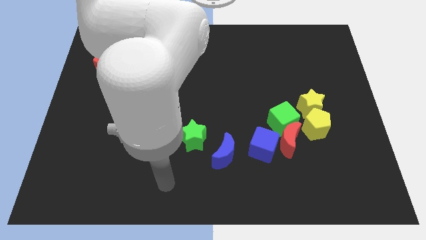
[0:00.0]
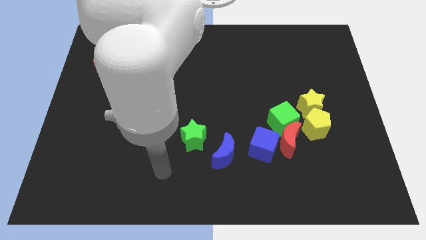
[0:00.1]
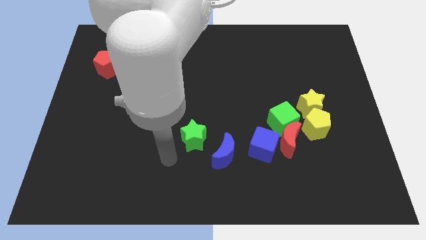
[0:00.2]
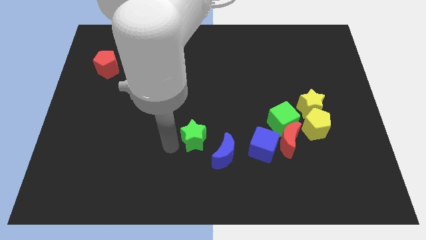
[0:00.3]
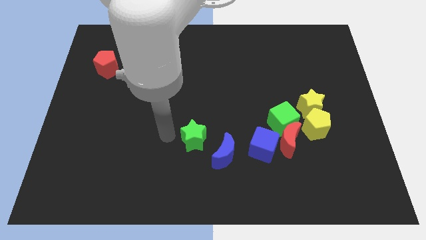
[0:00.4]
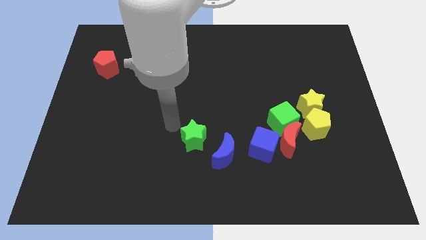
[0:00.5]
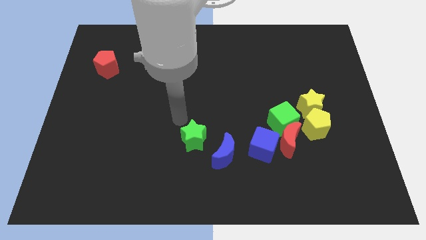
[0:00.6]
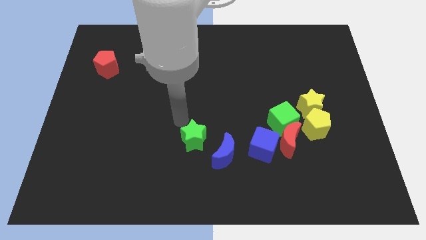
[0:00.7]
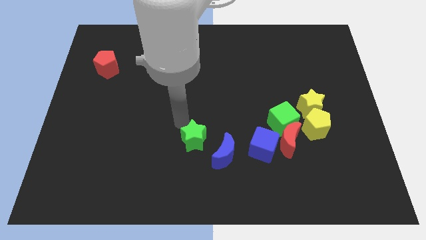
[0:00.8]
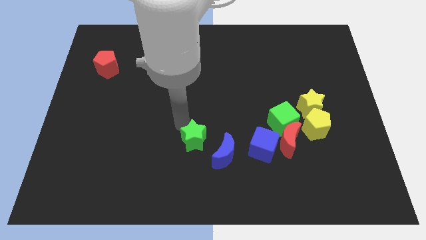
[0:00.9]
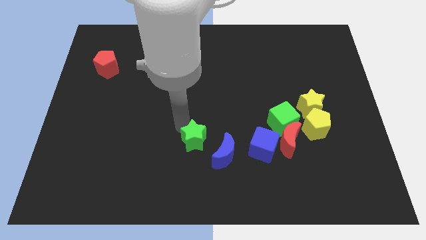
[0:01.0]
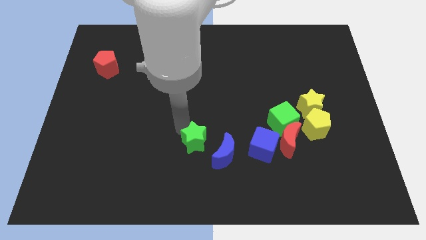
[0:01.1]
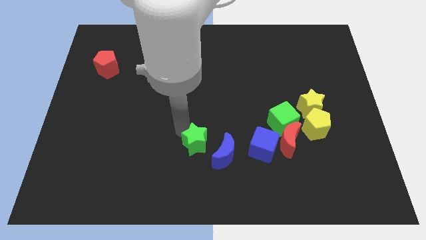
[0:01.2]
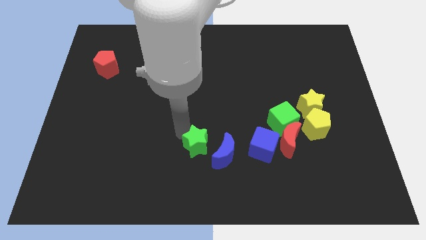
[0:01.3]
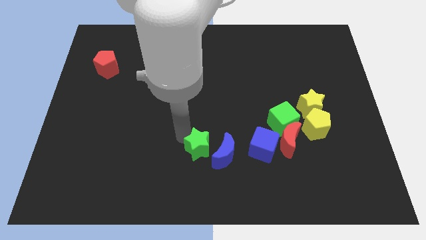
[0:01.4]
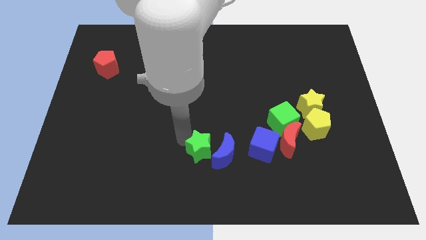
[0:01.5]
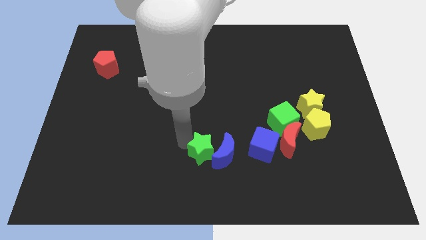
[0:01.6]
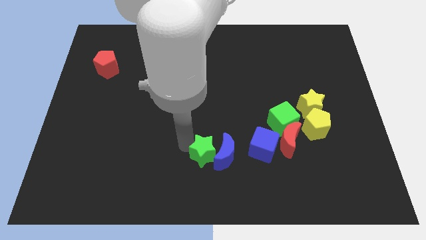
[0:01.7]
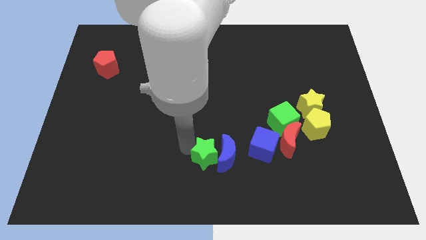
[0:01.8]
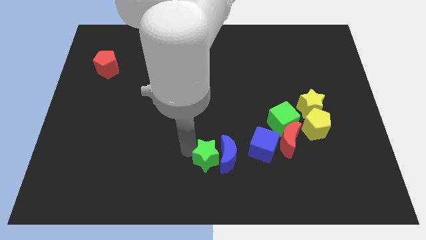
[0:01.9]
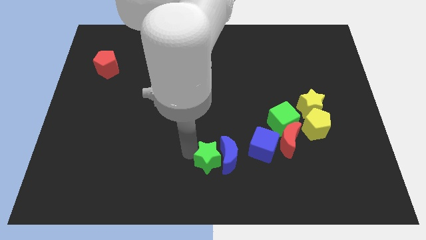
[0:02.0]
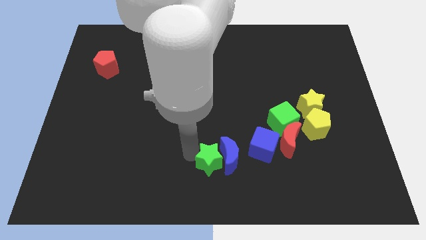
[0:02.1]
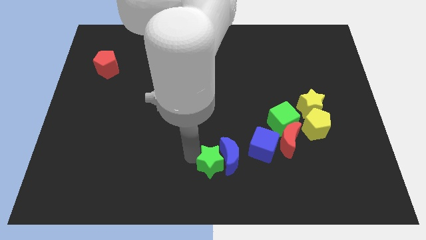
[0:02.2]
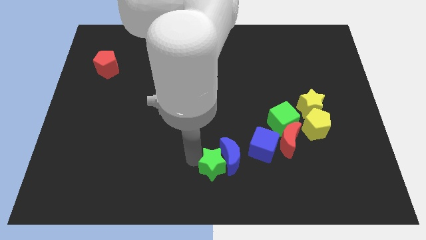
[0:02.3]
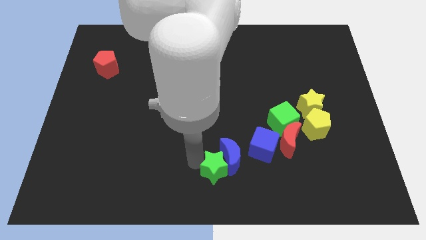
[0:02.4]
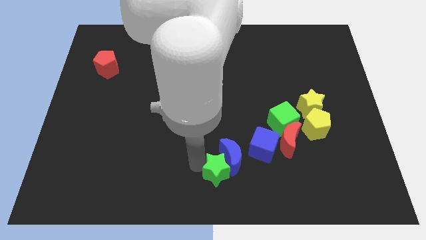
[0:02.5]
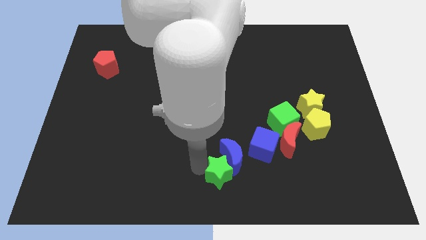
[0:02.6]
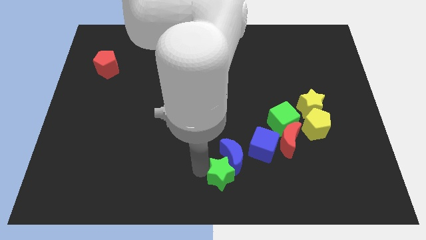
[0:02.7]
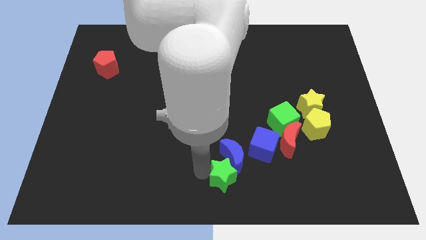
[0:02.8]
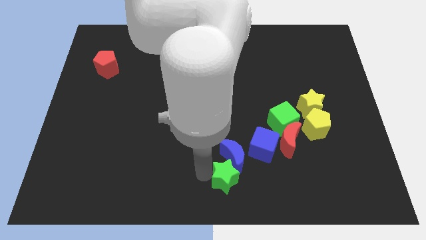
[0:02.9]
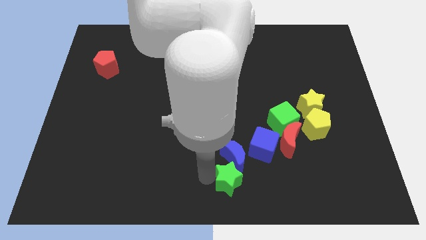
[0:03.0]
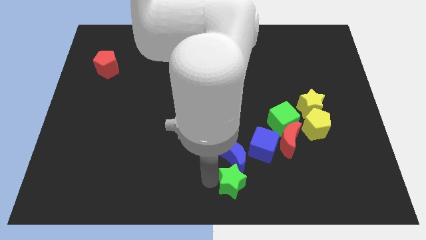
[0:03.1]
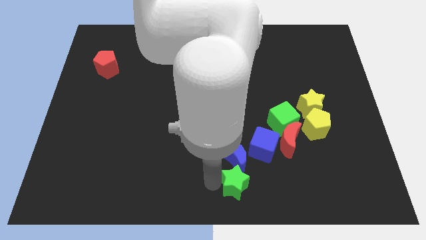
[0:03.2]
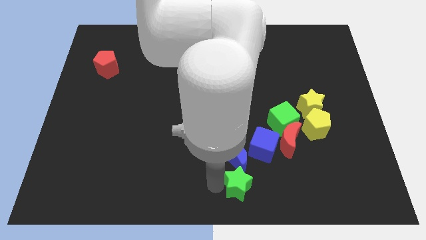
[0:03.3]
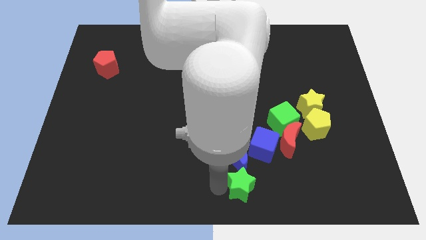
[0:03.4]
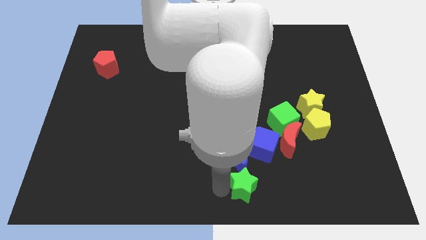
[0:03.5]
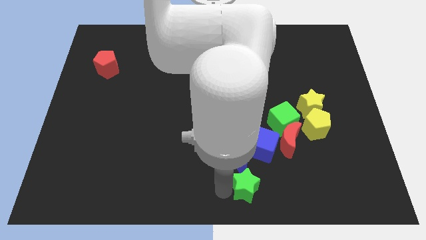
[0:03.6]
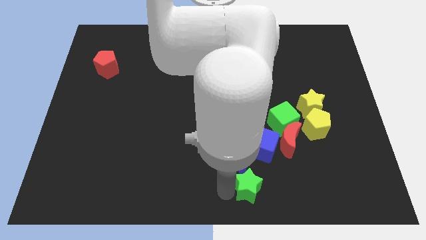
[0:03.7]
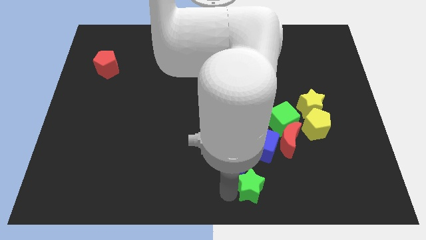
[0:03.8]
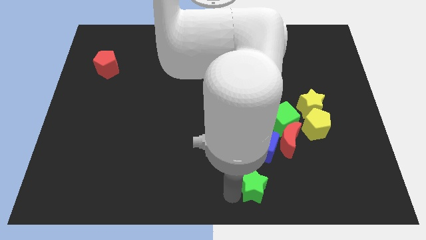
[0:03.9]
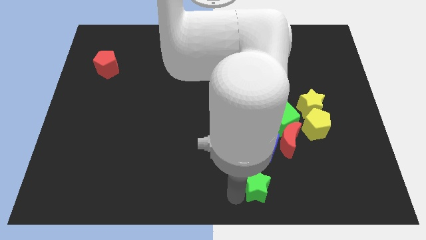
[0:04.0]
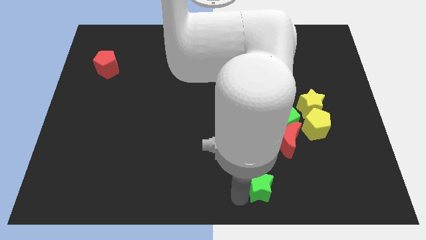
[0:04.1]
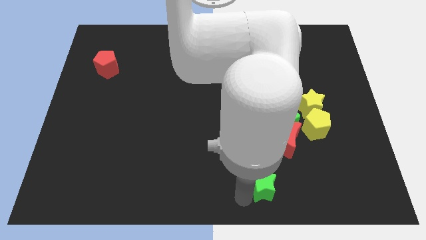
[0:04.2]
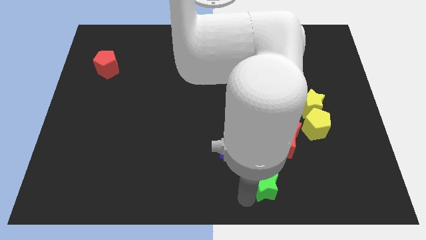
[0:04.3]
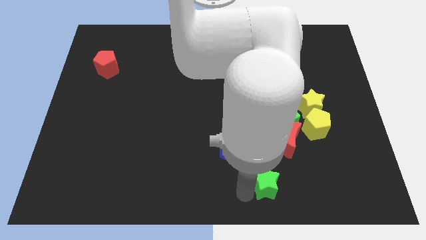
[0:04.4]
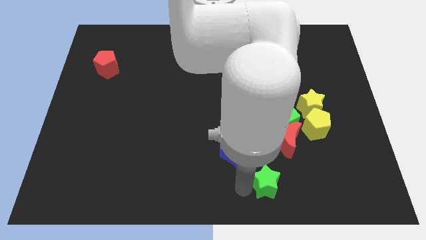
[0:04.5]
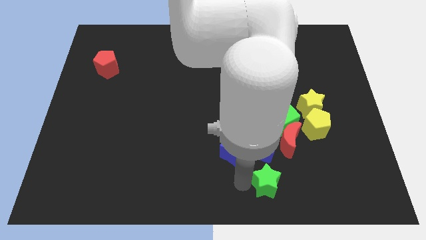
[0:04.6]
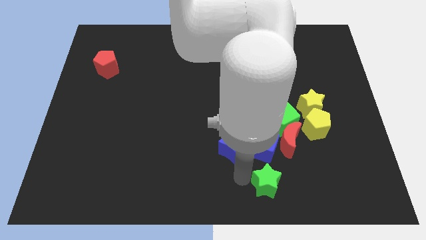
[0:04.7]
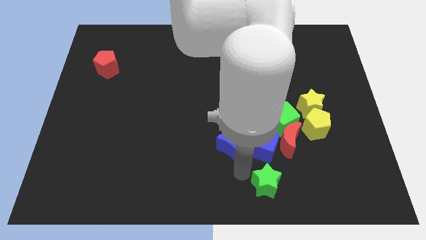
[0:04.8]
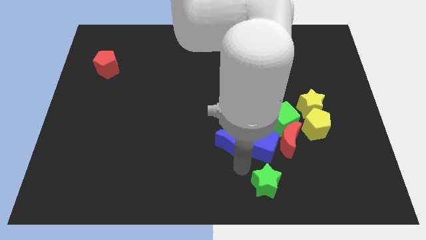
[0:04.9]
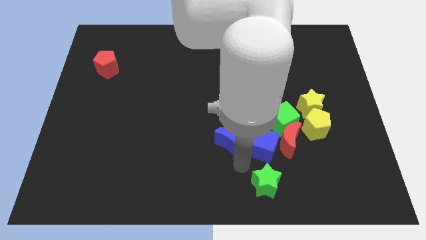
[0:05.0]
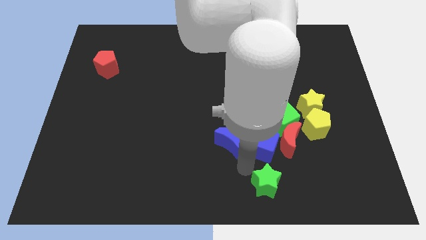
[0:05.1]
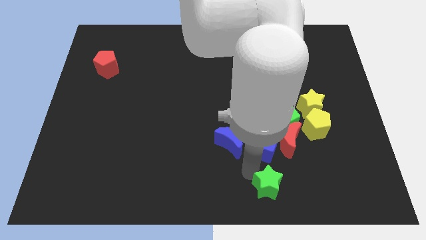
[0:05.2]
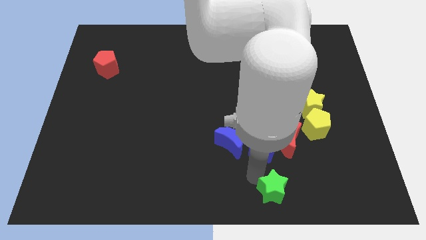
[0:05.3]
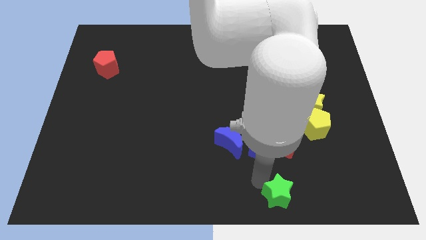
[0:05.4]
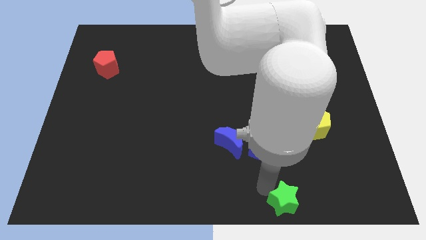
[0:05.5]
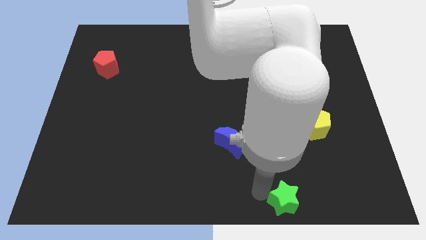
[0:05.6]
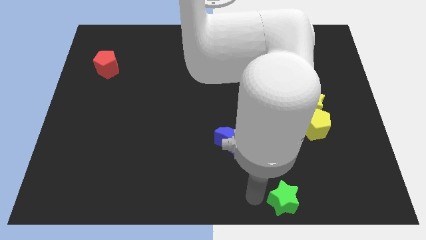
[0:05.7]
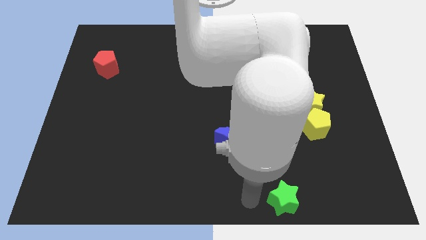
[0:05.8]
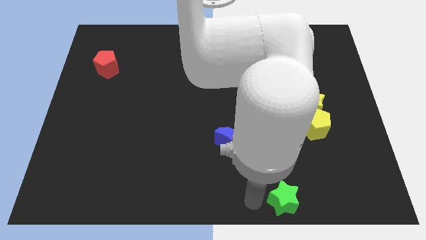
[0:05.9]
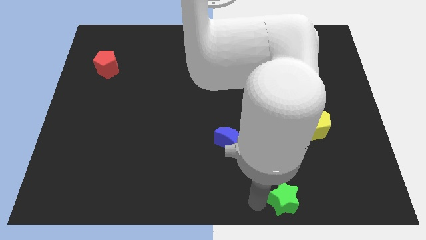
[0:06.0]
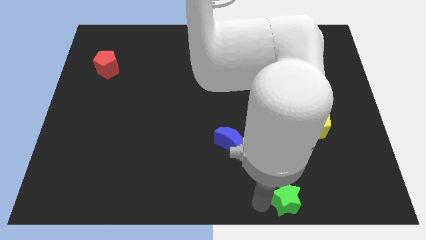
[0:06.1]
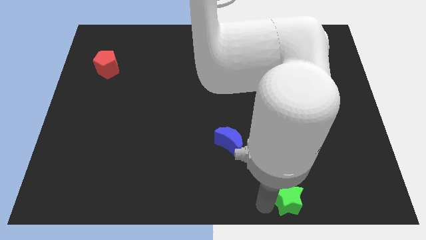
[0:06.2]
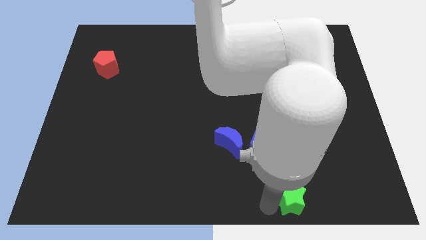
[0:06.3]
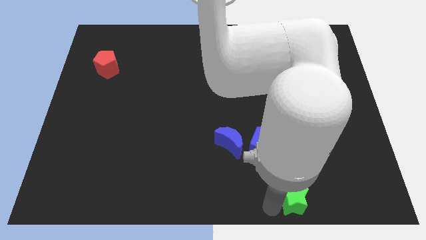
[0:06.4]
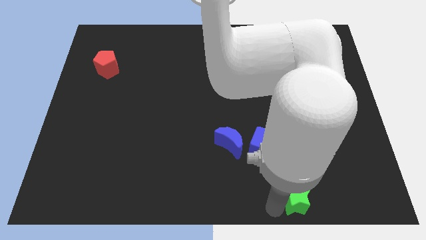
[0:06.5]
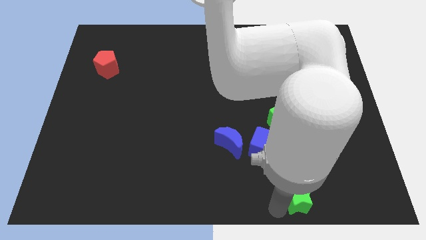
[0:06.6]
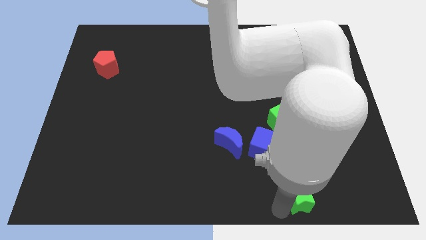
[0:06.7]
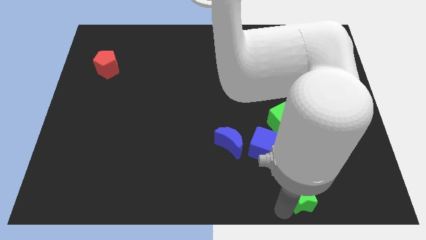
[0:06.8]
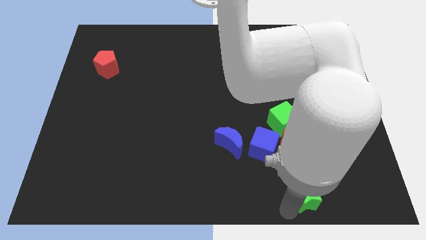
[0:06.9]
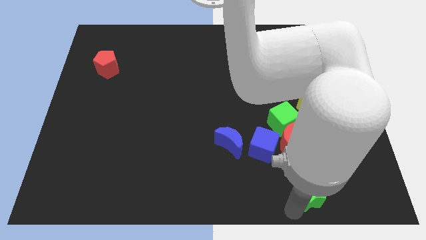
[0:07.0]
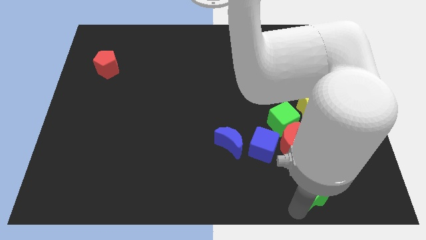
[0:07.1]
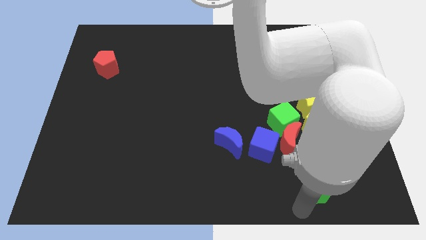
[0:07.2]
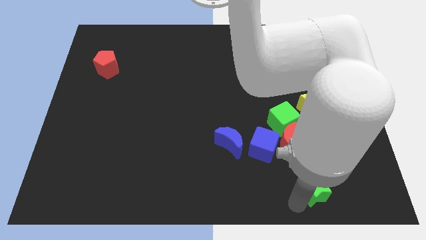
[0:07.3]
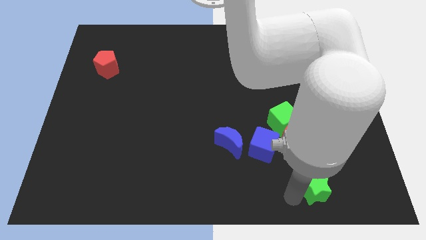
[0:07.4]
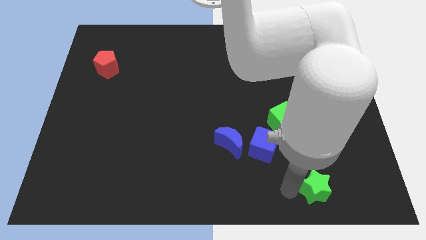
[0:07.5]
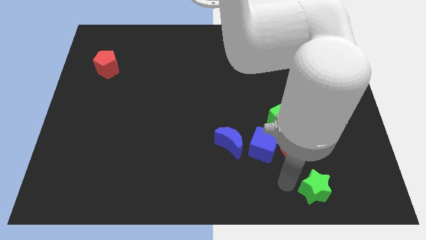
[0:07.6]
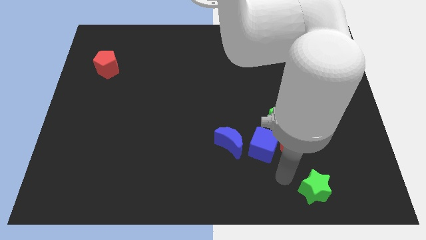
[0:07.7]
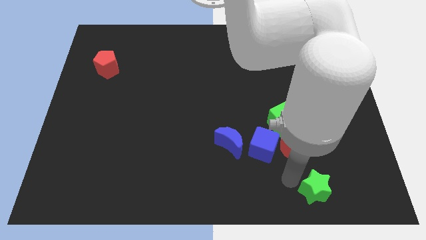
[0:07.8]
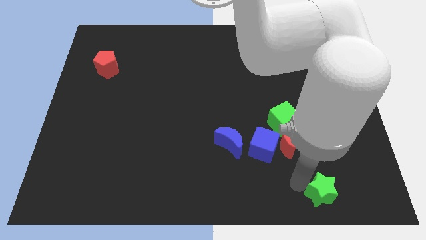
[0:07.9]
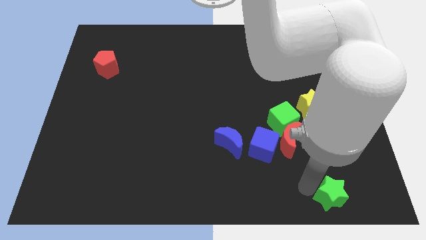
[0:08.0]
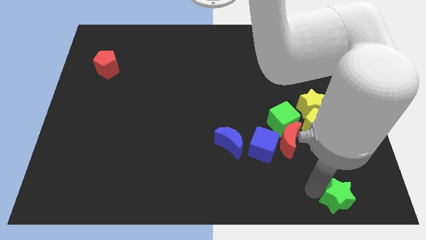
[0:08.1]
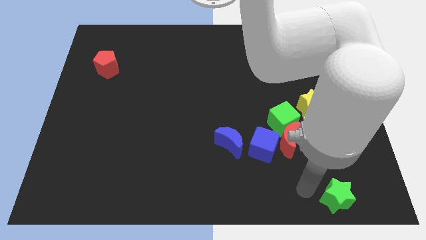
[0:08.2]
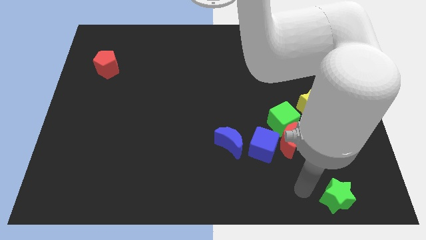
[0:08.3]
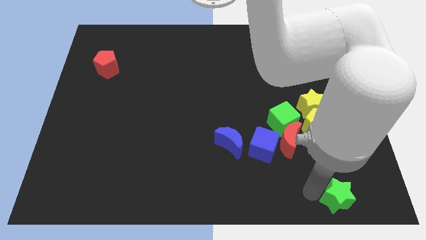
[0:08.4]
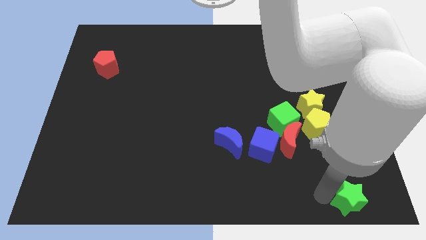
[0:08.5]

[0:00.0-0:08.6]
push the green star to the lower right corner
